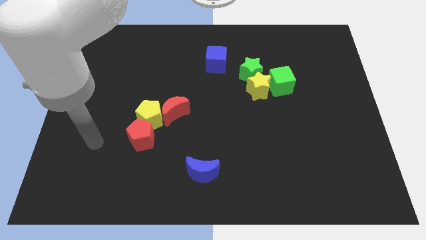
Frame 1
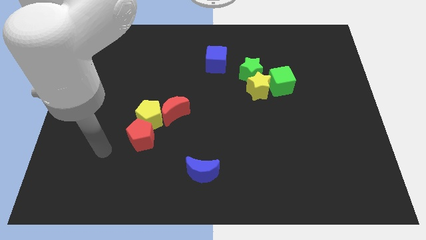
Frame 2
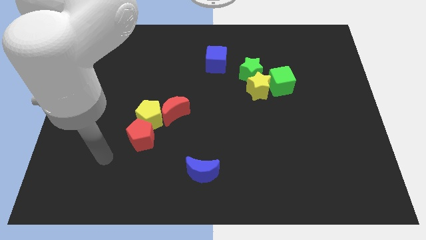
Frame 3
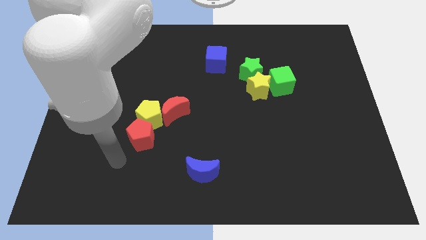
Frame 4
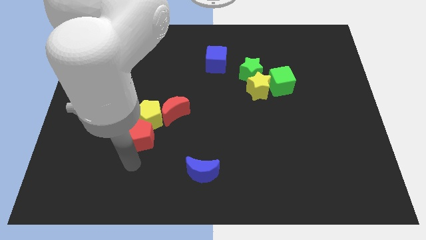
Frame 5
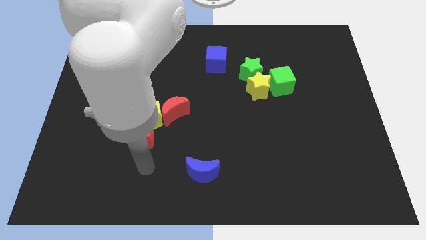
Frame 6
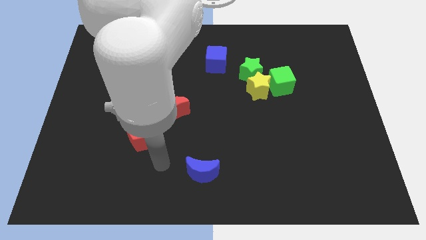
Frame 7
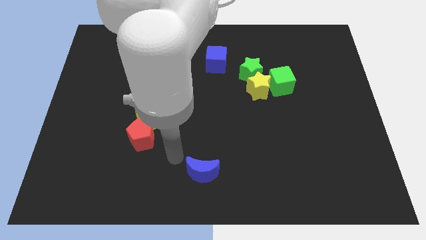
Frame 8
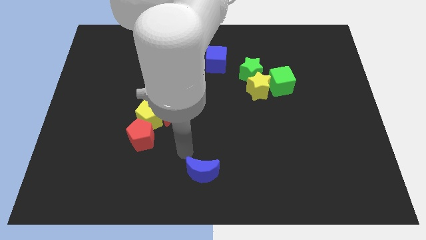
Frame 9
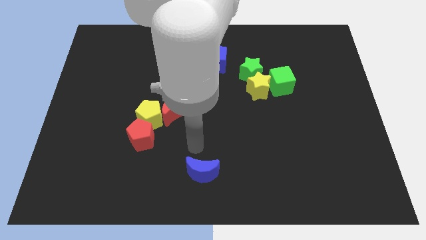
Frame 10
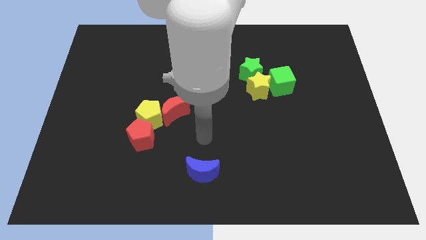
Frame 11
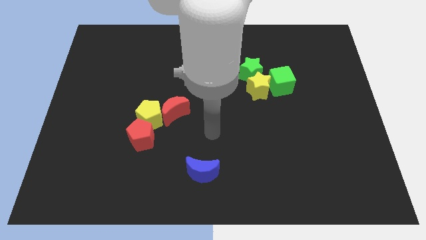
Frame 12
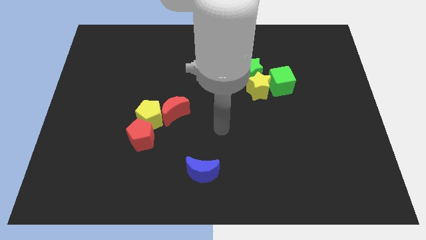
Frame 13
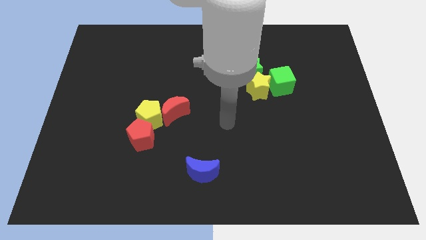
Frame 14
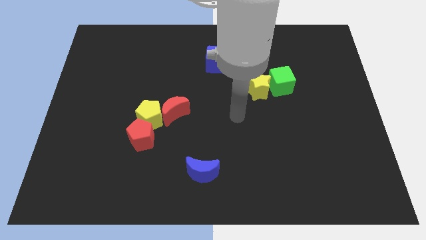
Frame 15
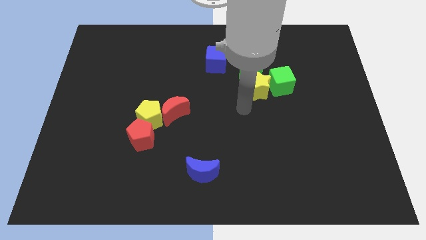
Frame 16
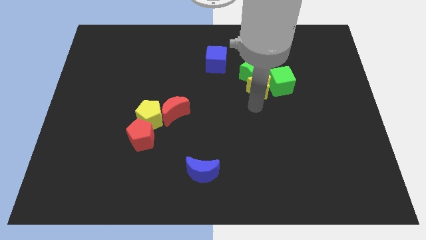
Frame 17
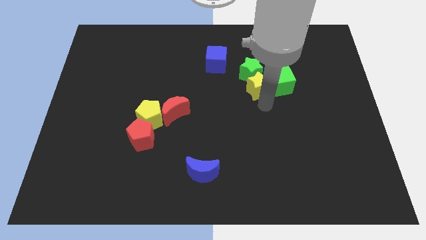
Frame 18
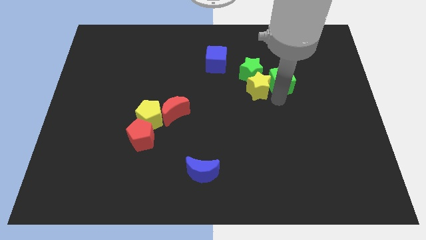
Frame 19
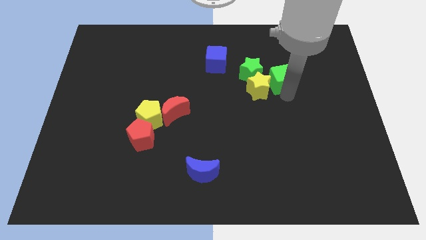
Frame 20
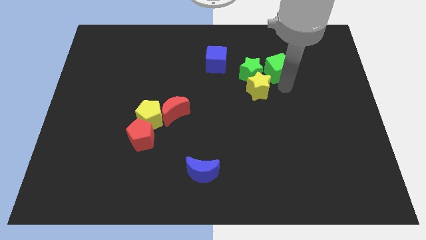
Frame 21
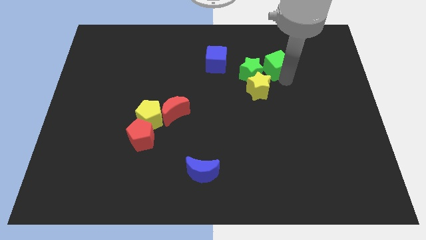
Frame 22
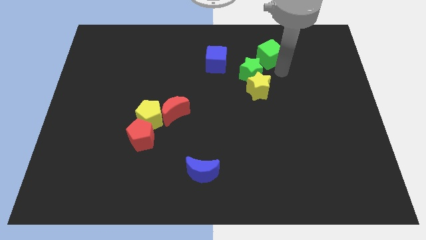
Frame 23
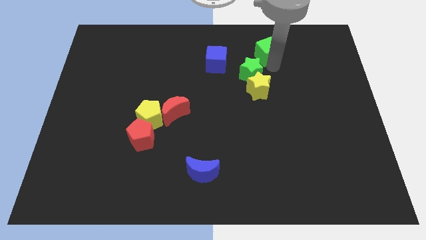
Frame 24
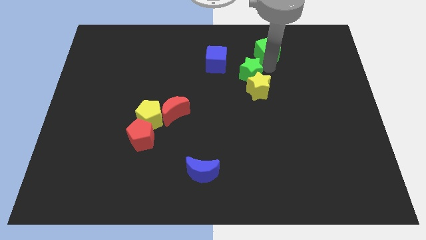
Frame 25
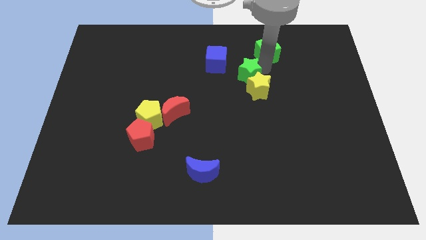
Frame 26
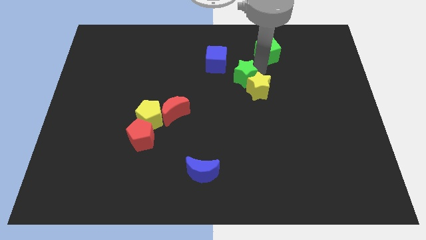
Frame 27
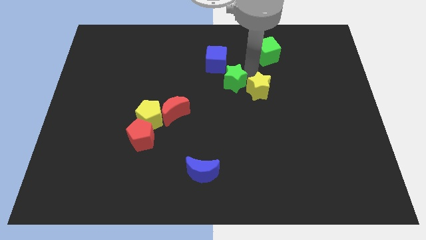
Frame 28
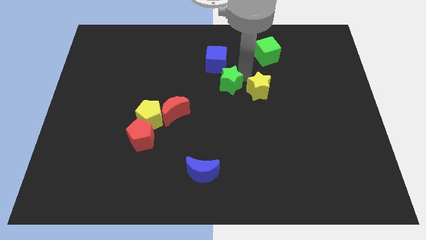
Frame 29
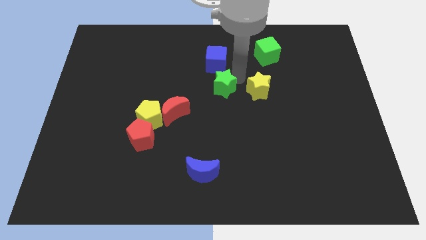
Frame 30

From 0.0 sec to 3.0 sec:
slightly move the green star down and then left

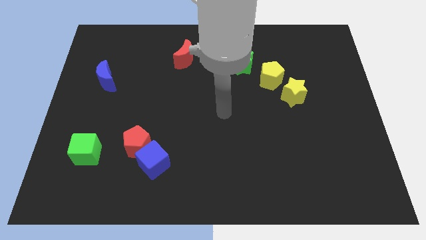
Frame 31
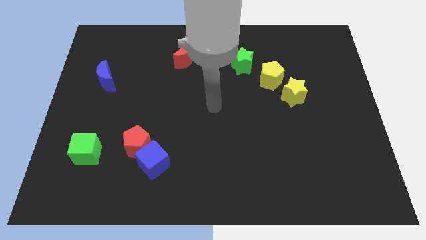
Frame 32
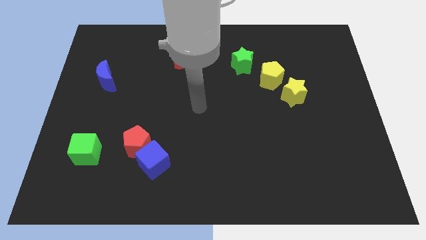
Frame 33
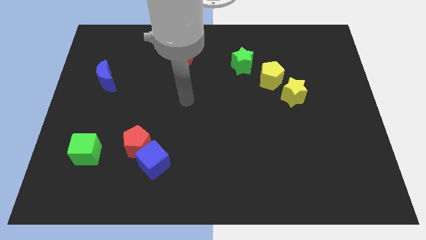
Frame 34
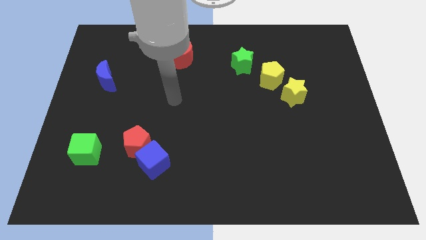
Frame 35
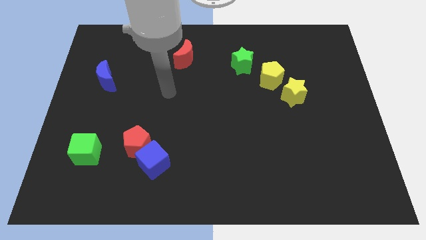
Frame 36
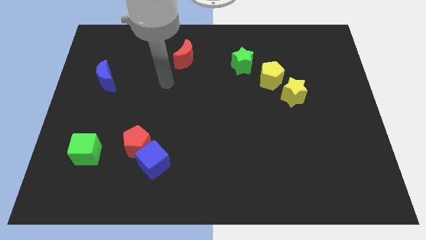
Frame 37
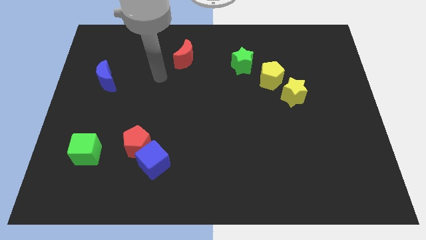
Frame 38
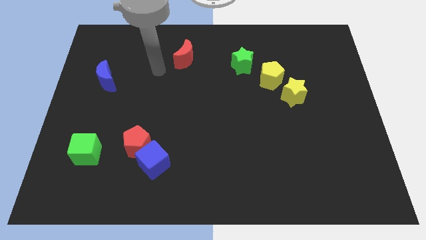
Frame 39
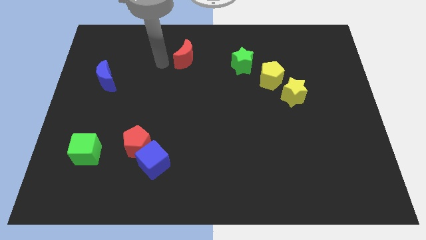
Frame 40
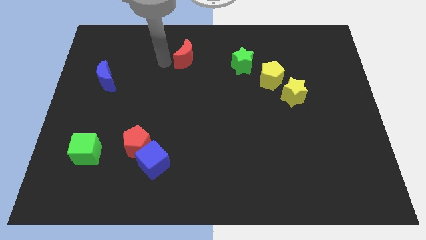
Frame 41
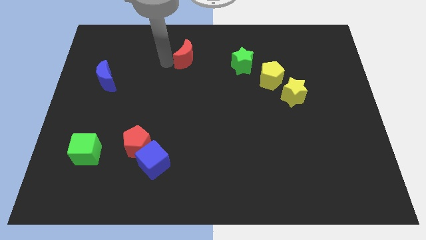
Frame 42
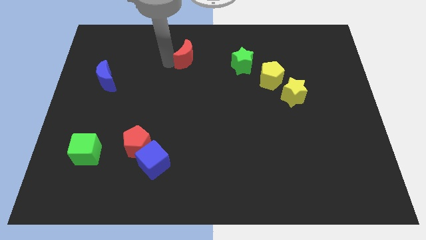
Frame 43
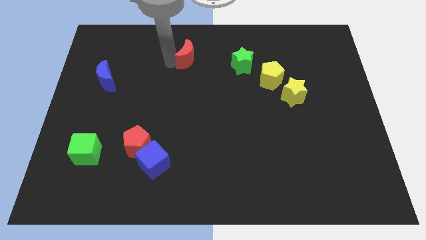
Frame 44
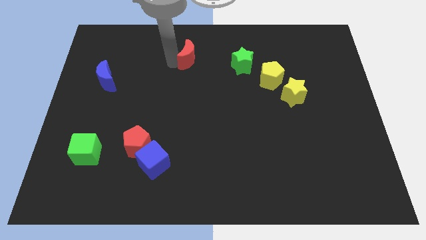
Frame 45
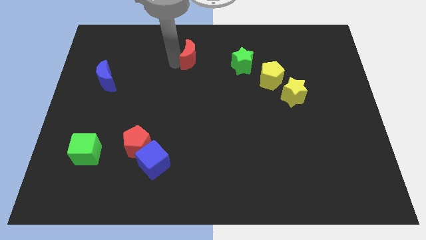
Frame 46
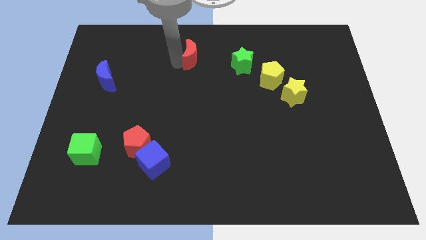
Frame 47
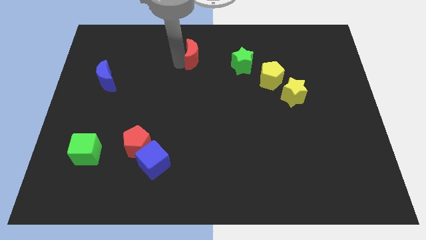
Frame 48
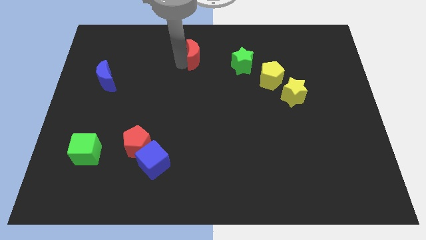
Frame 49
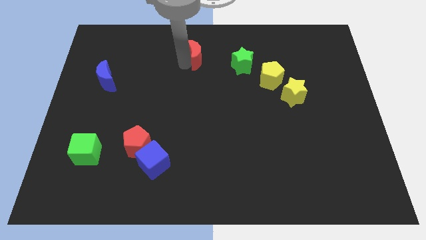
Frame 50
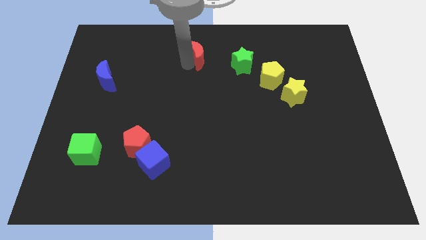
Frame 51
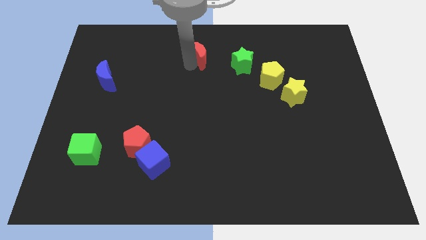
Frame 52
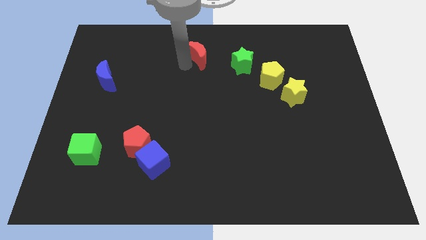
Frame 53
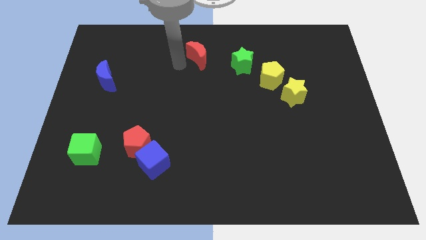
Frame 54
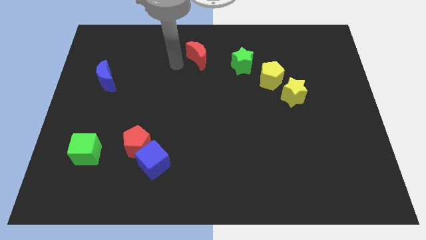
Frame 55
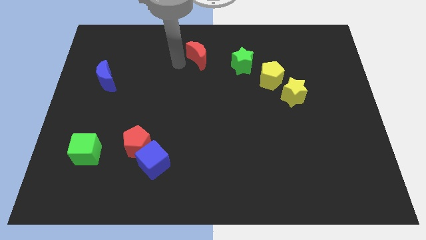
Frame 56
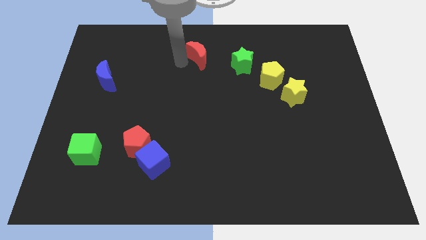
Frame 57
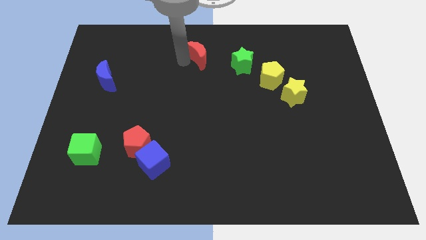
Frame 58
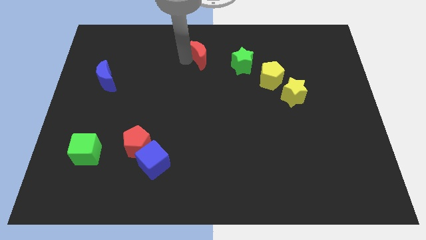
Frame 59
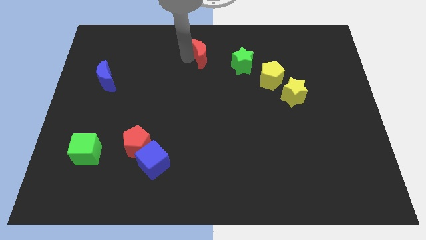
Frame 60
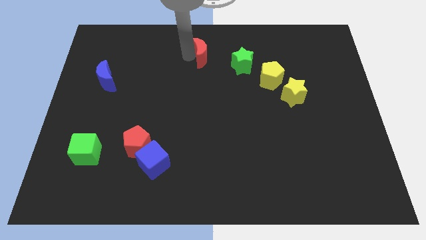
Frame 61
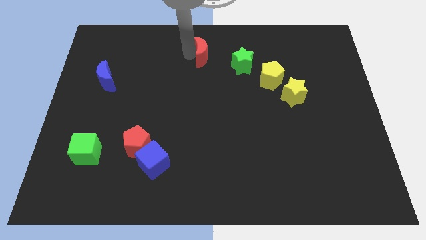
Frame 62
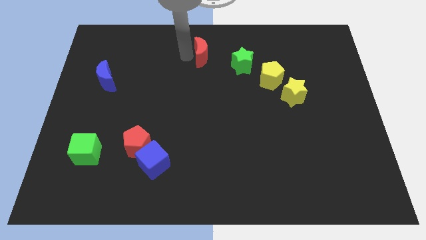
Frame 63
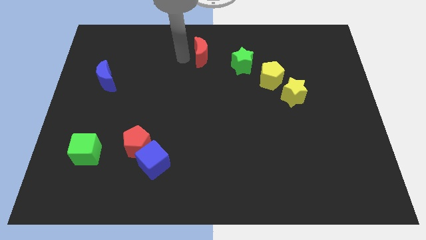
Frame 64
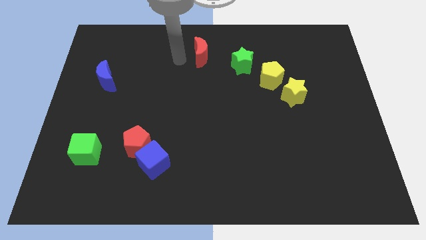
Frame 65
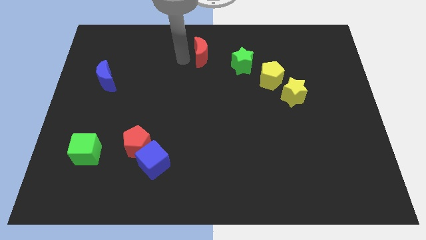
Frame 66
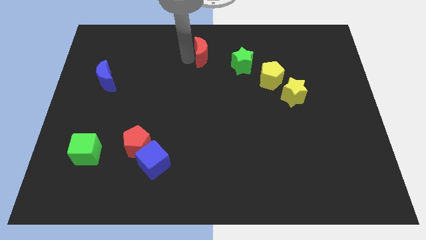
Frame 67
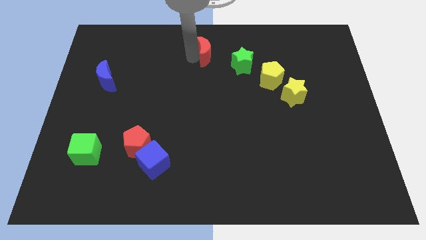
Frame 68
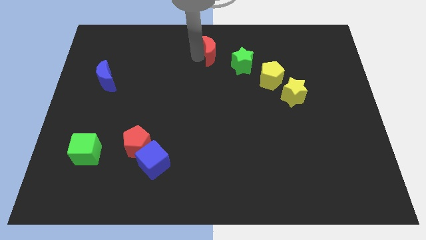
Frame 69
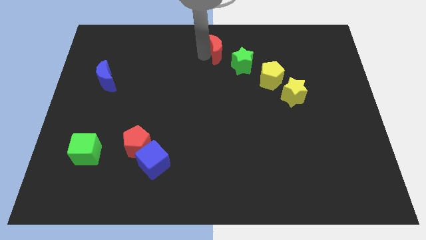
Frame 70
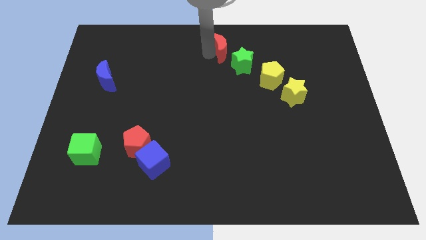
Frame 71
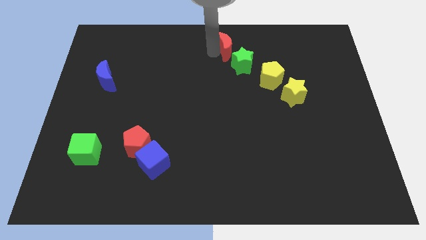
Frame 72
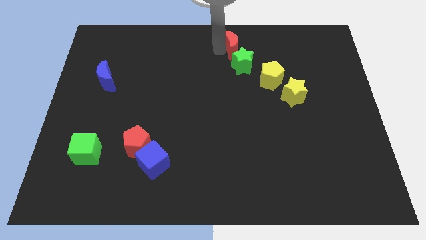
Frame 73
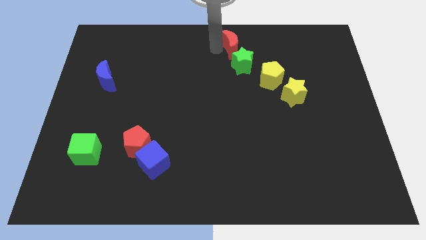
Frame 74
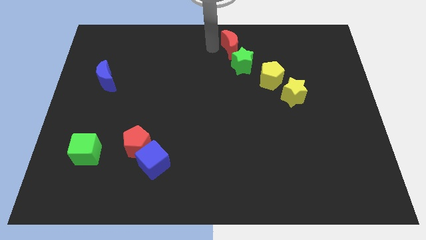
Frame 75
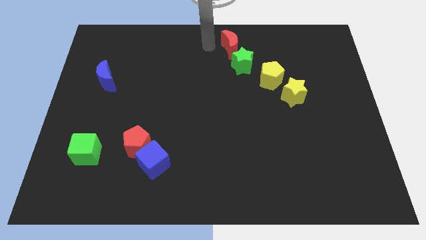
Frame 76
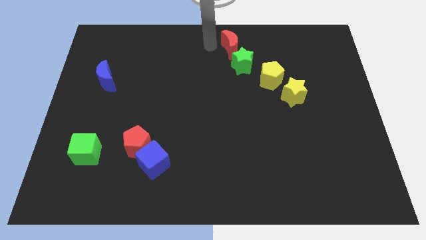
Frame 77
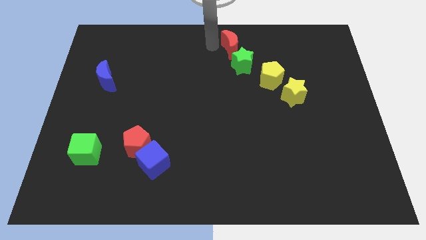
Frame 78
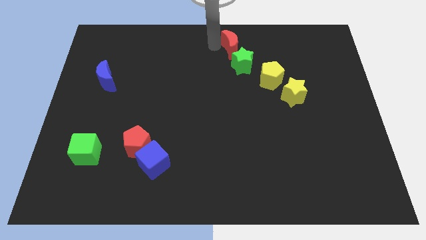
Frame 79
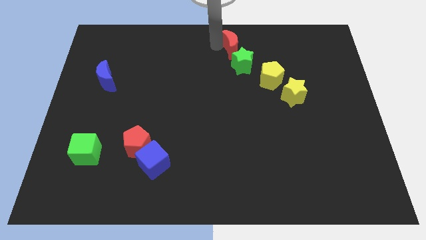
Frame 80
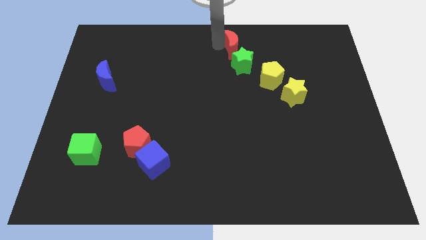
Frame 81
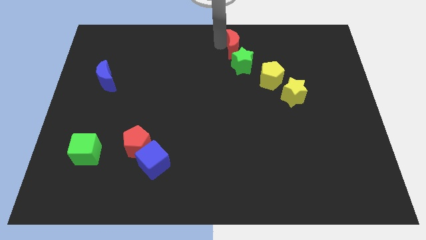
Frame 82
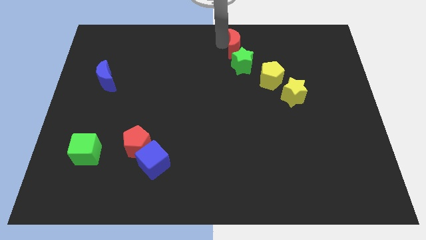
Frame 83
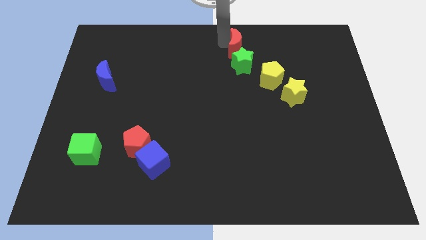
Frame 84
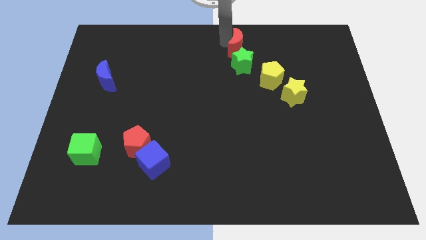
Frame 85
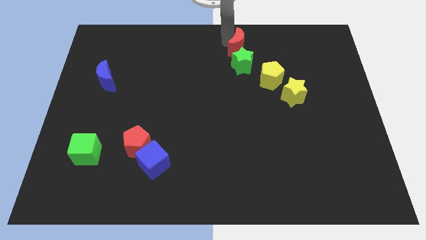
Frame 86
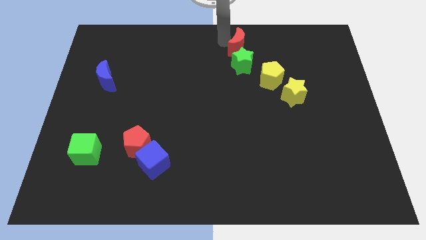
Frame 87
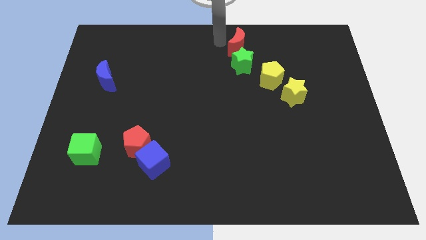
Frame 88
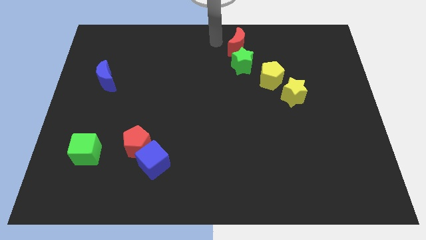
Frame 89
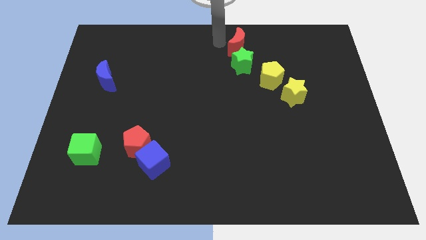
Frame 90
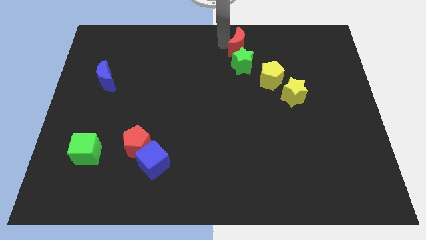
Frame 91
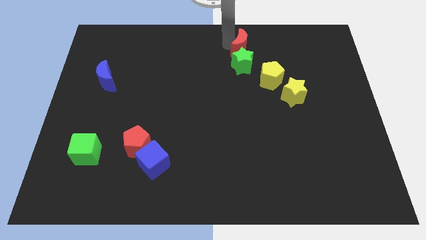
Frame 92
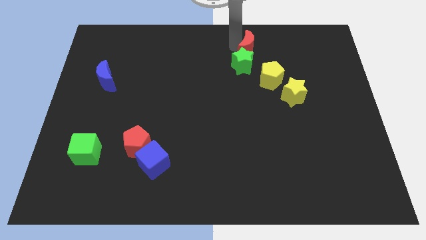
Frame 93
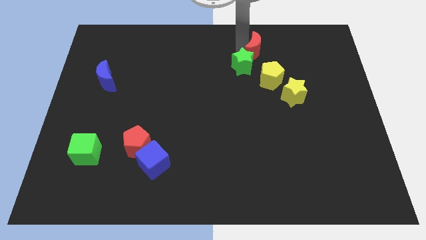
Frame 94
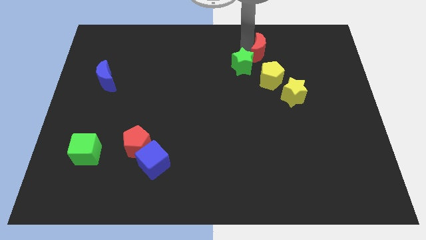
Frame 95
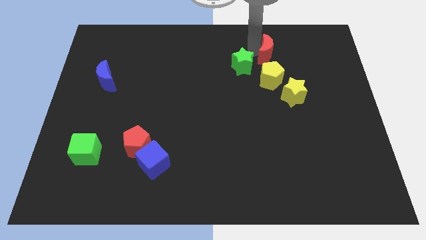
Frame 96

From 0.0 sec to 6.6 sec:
slide the red moon to the right
